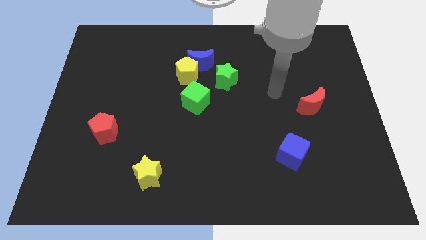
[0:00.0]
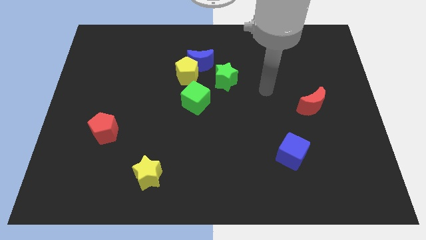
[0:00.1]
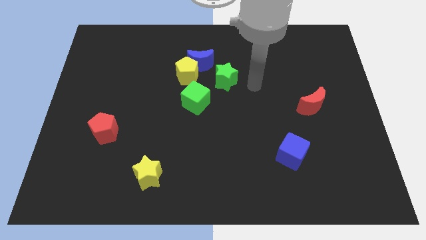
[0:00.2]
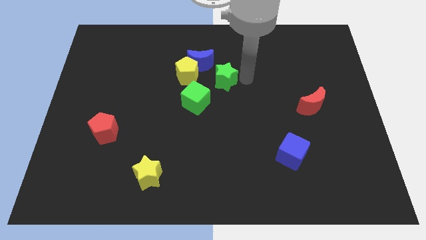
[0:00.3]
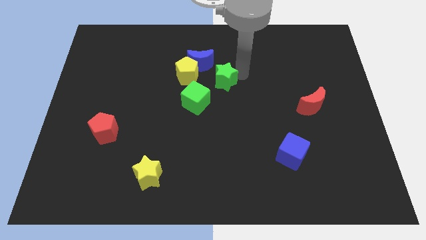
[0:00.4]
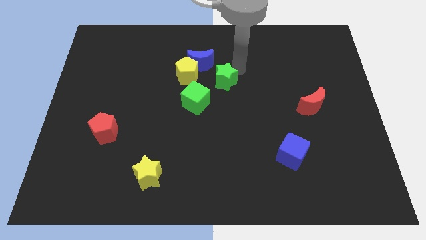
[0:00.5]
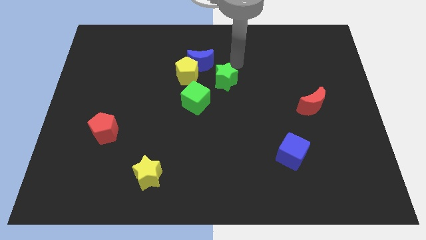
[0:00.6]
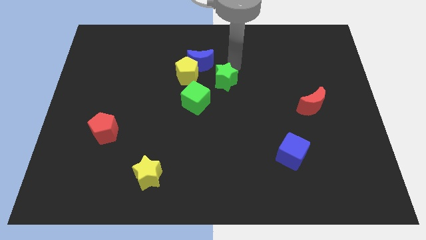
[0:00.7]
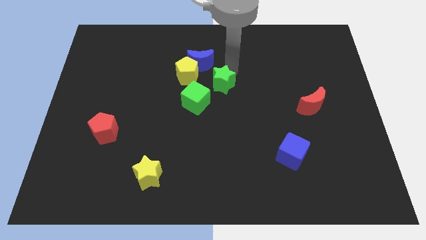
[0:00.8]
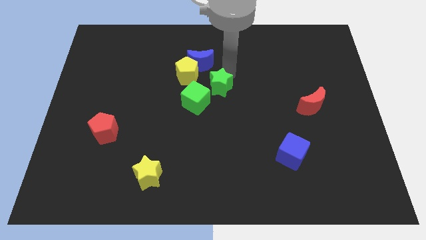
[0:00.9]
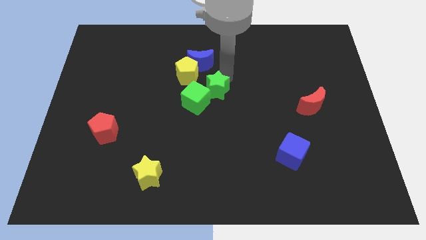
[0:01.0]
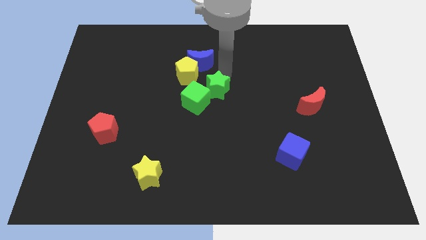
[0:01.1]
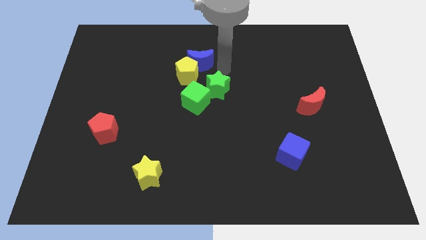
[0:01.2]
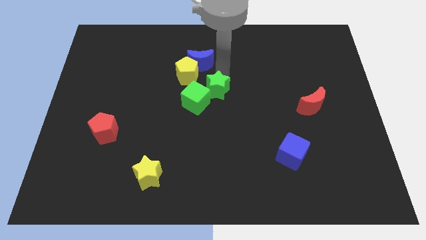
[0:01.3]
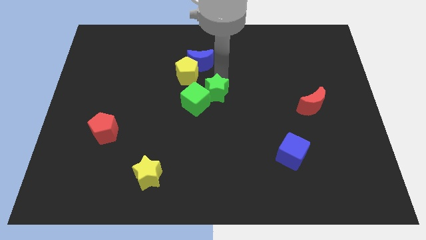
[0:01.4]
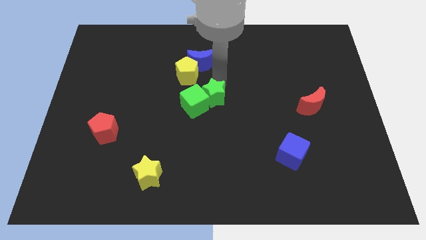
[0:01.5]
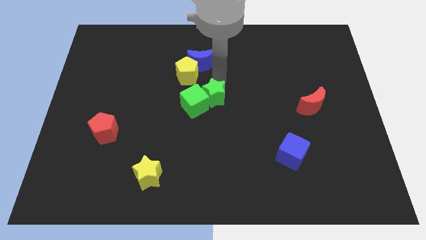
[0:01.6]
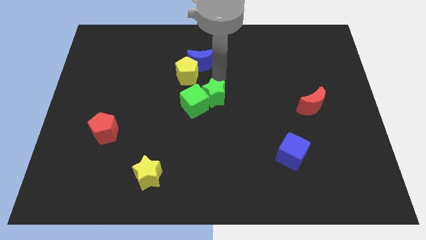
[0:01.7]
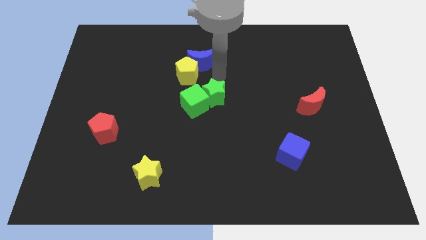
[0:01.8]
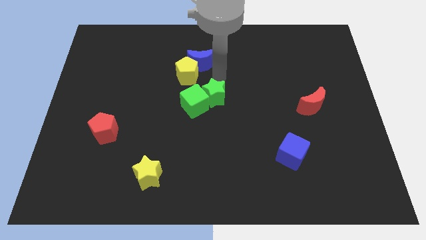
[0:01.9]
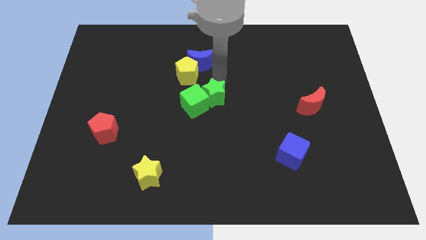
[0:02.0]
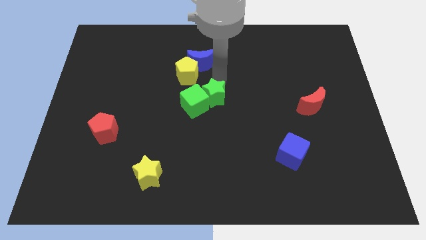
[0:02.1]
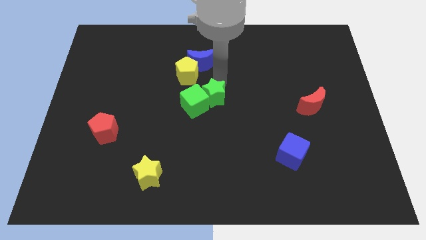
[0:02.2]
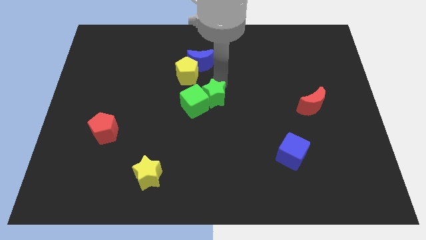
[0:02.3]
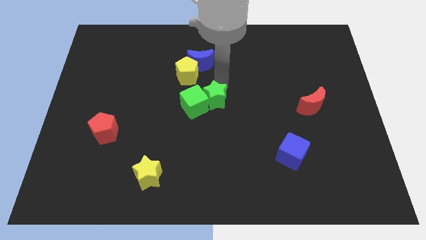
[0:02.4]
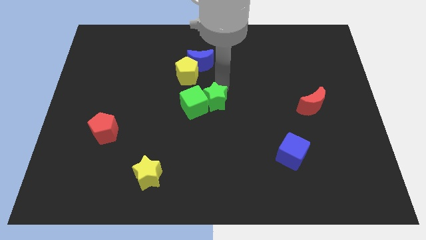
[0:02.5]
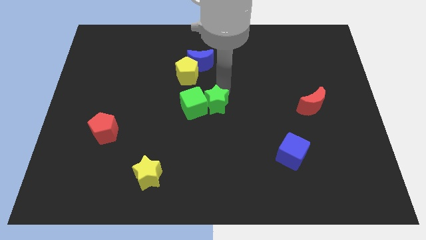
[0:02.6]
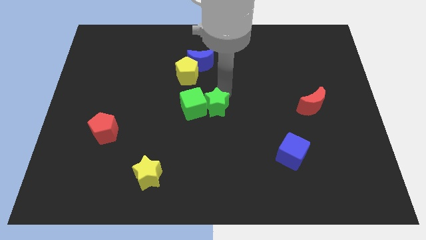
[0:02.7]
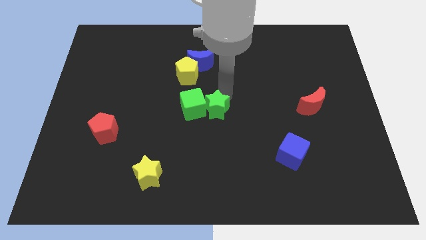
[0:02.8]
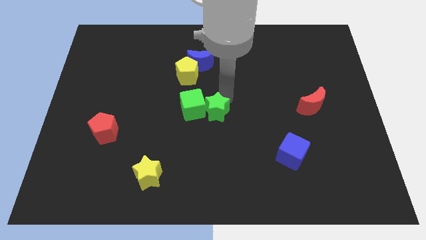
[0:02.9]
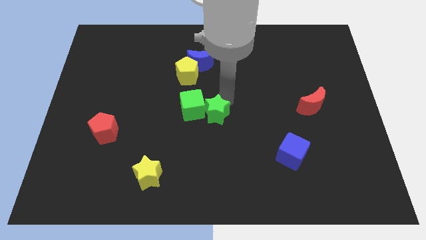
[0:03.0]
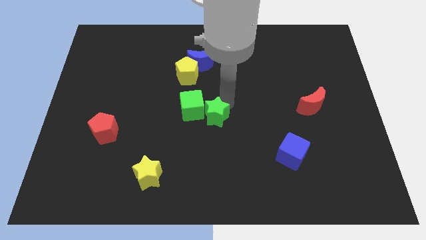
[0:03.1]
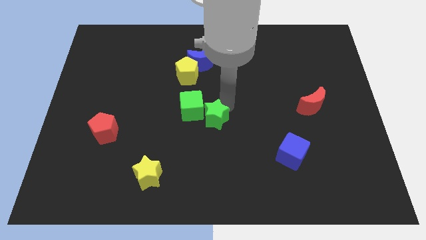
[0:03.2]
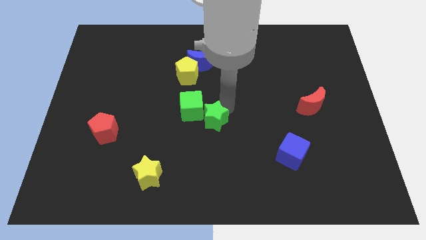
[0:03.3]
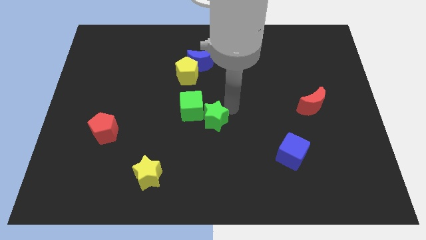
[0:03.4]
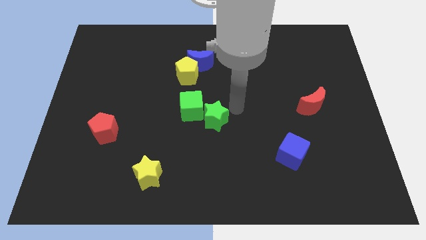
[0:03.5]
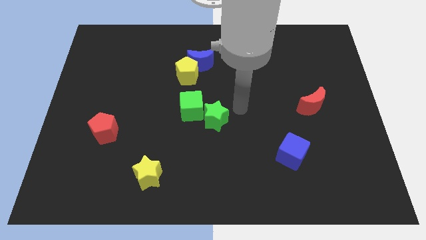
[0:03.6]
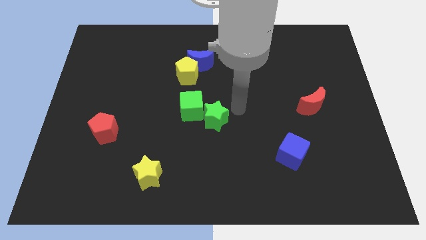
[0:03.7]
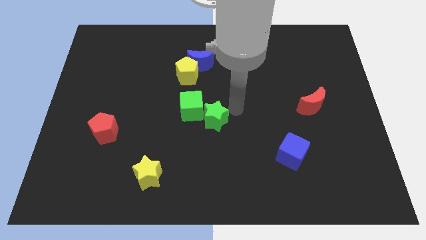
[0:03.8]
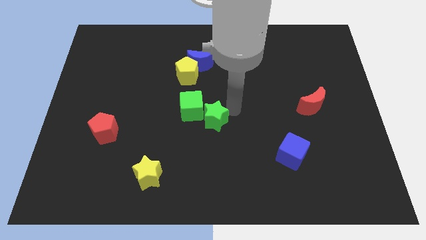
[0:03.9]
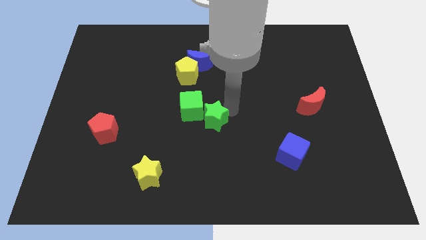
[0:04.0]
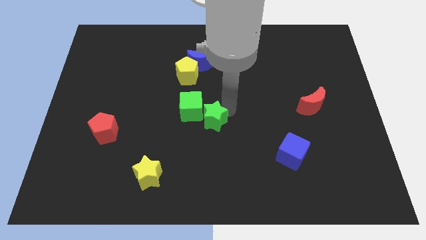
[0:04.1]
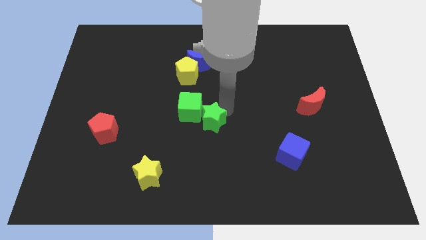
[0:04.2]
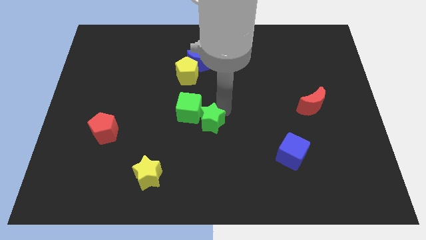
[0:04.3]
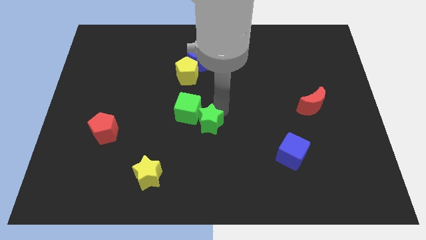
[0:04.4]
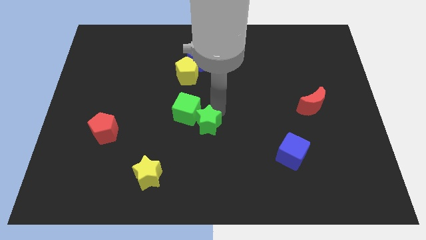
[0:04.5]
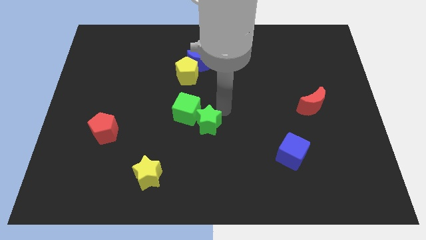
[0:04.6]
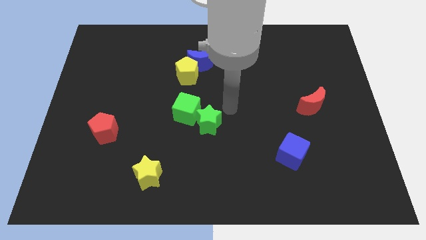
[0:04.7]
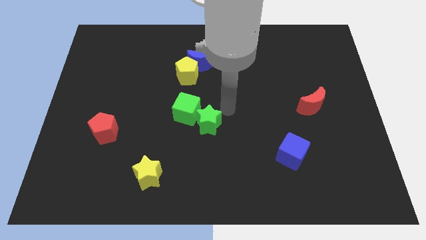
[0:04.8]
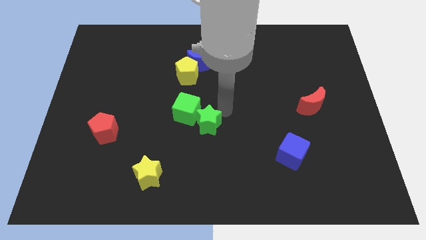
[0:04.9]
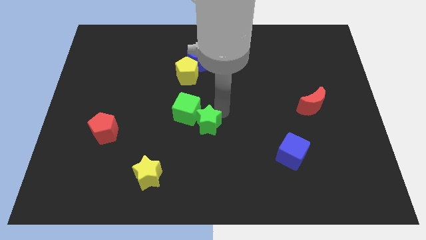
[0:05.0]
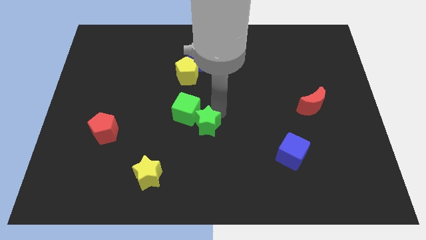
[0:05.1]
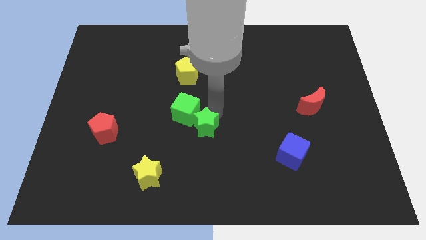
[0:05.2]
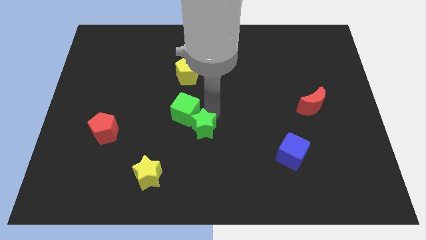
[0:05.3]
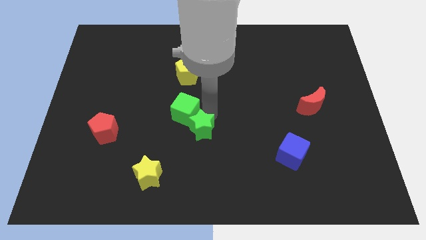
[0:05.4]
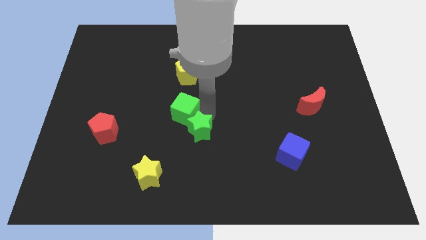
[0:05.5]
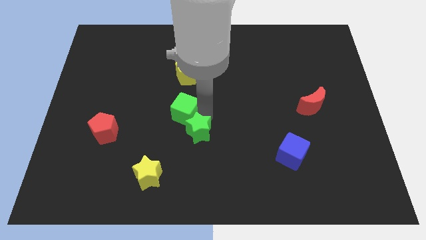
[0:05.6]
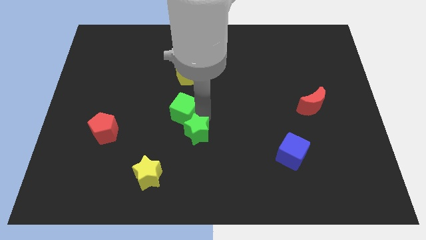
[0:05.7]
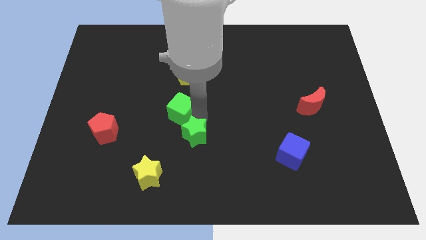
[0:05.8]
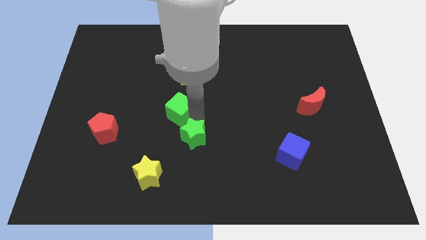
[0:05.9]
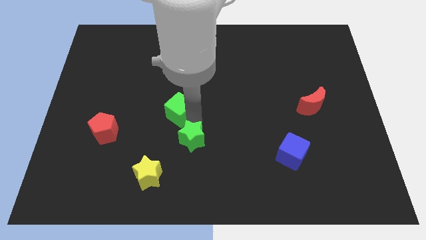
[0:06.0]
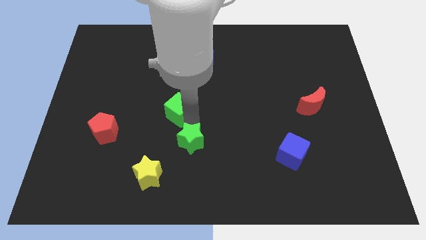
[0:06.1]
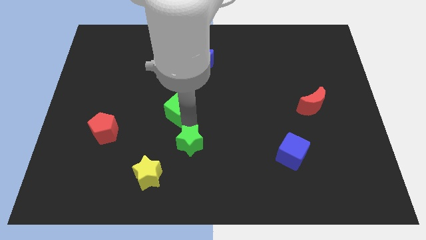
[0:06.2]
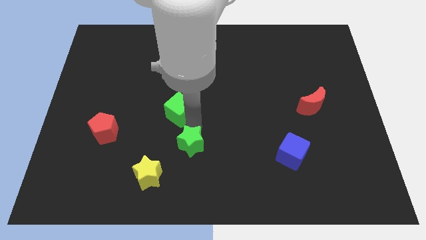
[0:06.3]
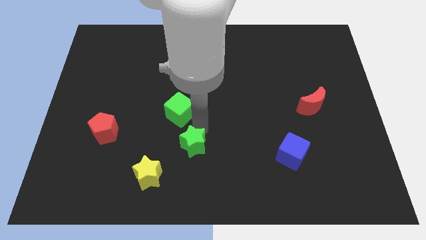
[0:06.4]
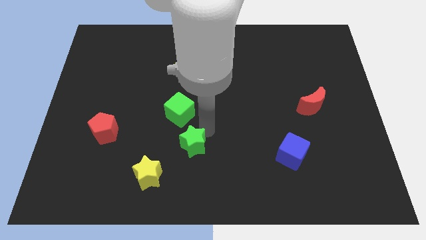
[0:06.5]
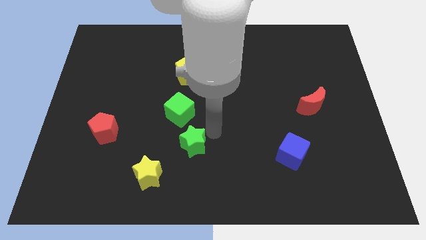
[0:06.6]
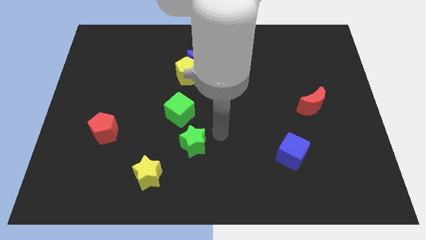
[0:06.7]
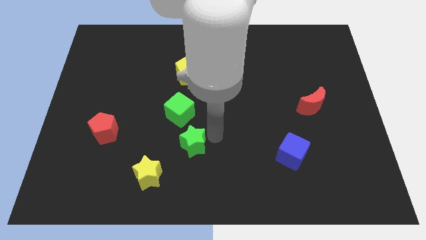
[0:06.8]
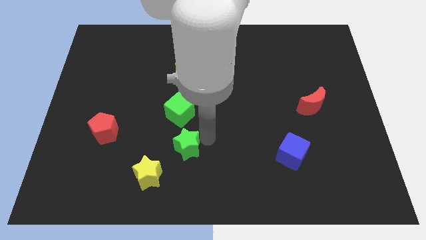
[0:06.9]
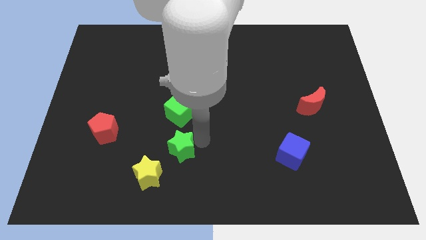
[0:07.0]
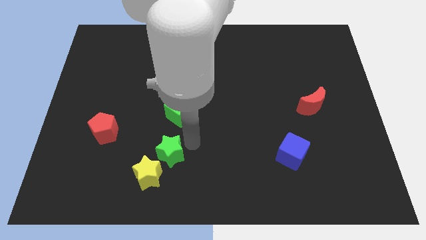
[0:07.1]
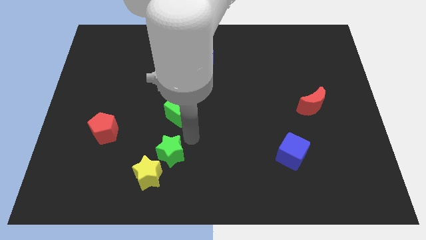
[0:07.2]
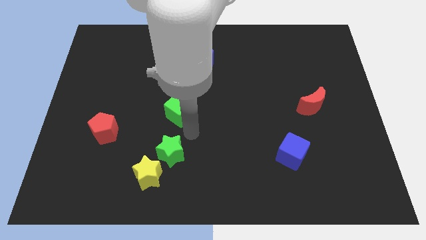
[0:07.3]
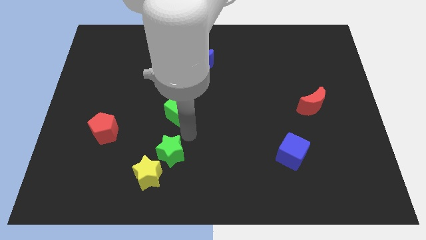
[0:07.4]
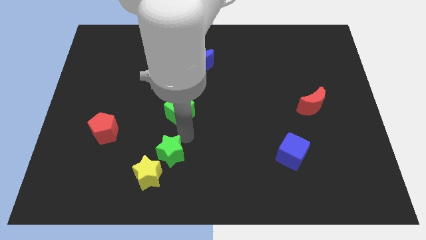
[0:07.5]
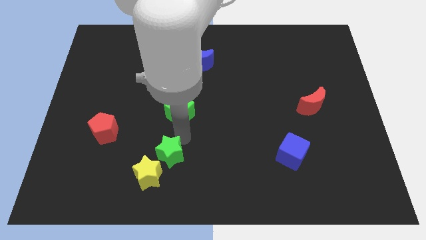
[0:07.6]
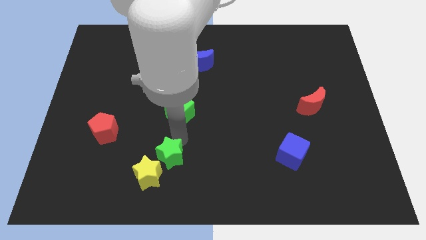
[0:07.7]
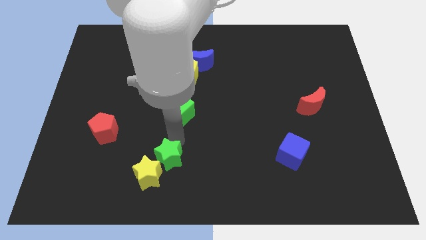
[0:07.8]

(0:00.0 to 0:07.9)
put the green star close to the yellow star
